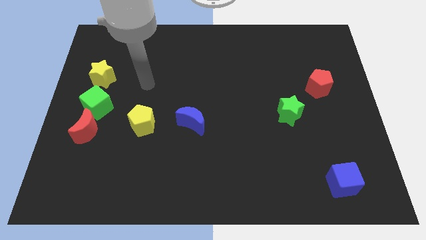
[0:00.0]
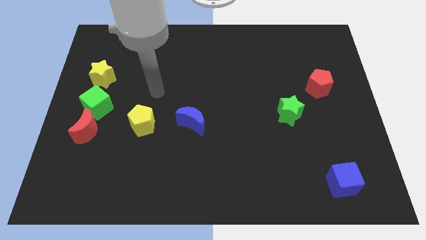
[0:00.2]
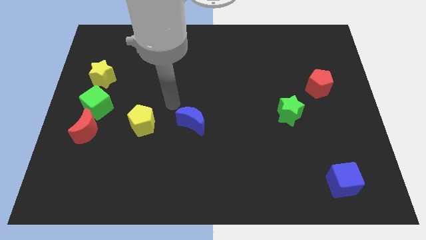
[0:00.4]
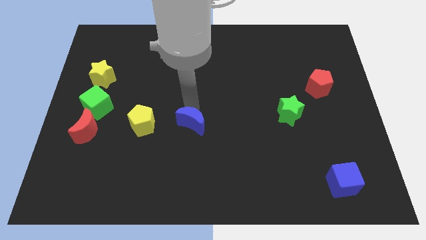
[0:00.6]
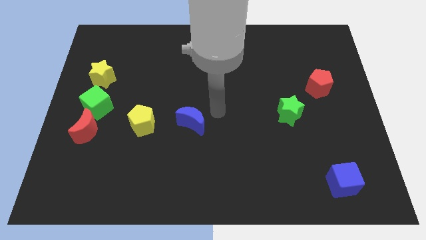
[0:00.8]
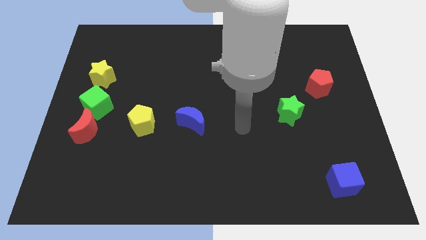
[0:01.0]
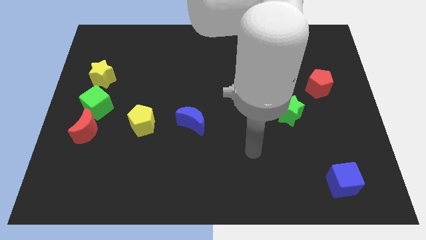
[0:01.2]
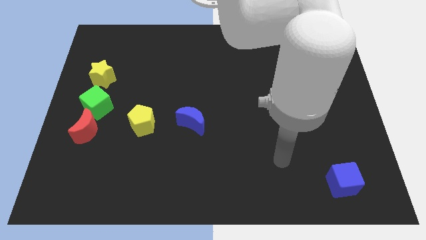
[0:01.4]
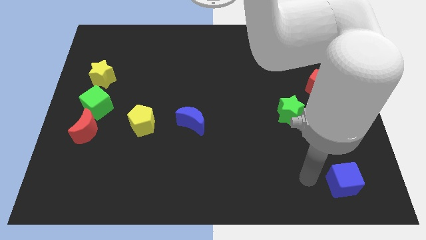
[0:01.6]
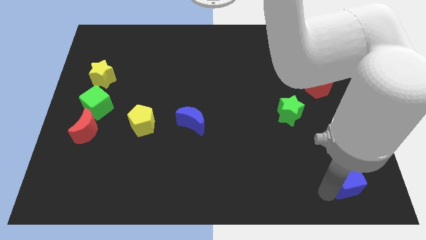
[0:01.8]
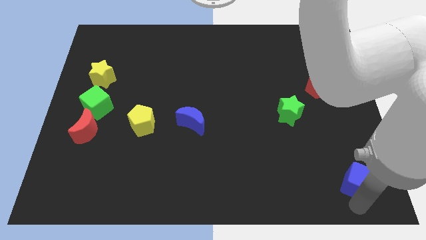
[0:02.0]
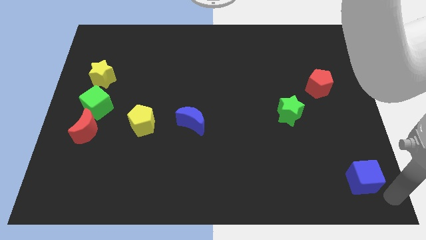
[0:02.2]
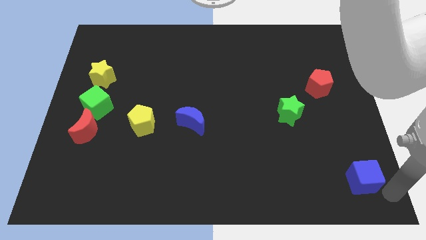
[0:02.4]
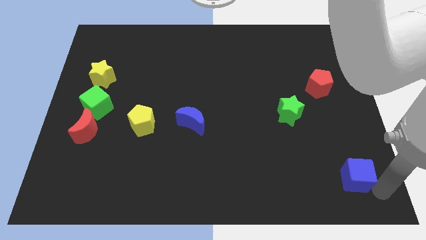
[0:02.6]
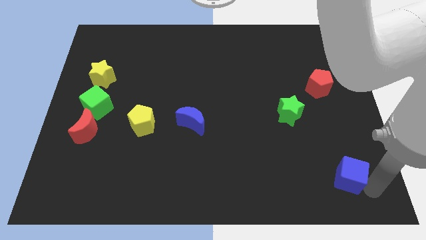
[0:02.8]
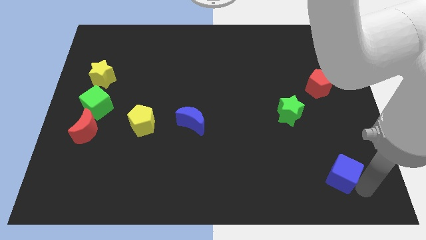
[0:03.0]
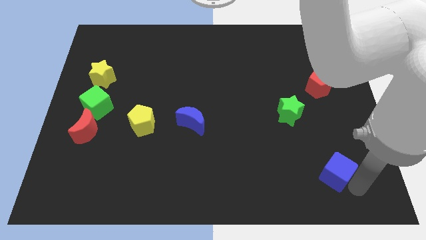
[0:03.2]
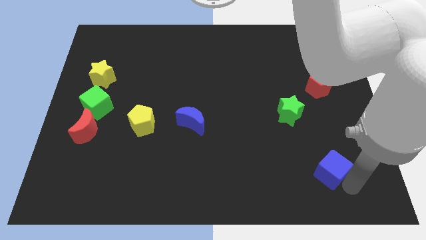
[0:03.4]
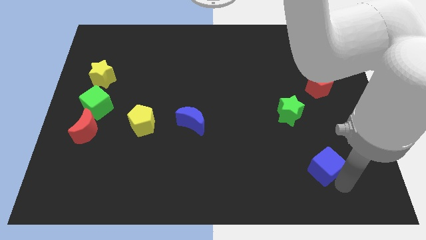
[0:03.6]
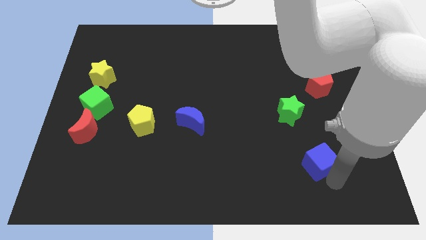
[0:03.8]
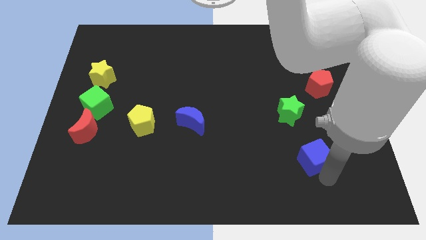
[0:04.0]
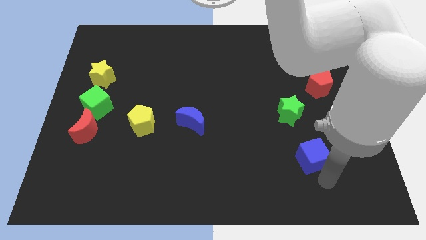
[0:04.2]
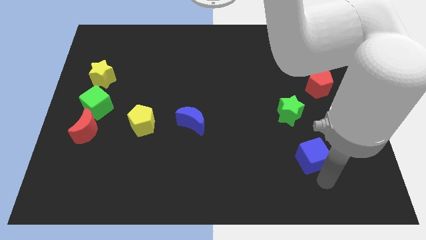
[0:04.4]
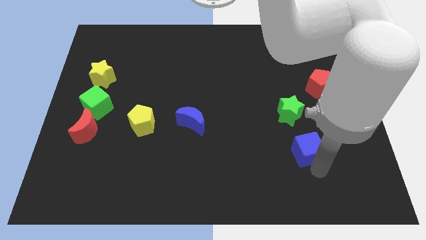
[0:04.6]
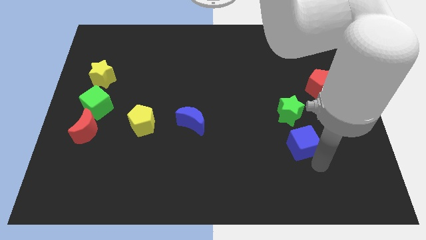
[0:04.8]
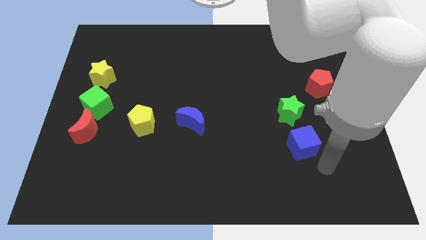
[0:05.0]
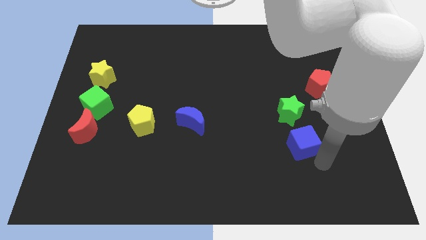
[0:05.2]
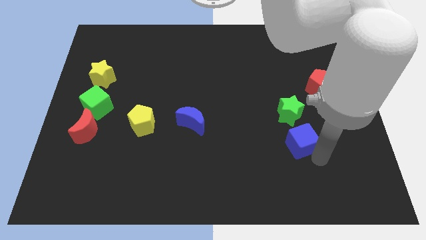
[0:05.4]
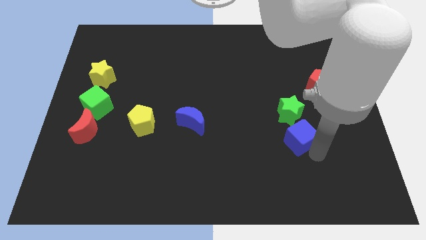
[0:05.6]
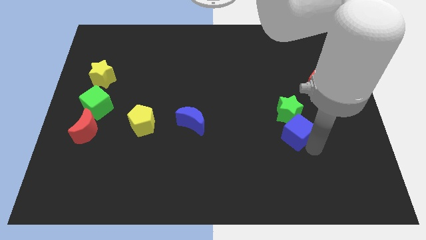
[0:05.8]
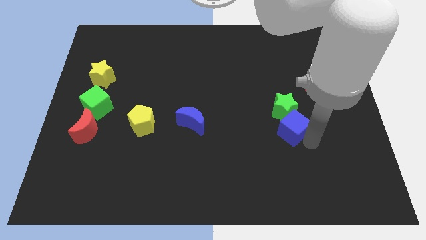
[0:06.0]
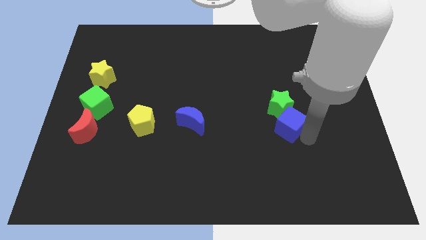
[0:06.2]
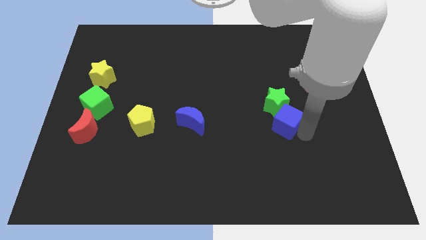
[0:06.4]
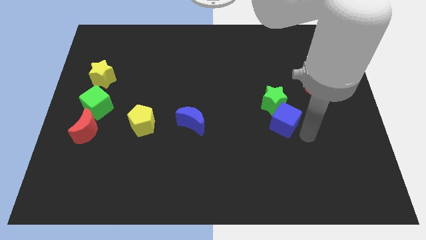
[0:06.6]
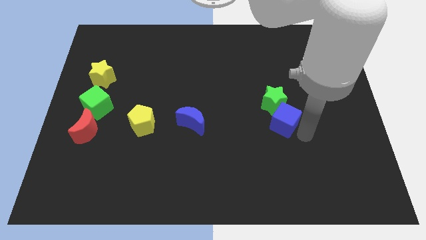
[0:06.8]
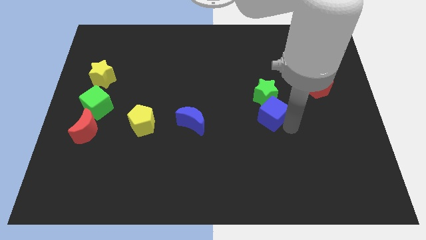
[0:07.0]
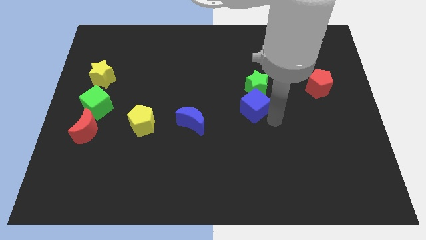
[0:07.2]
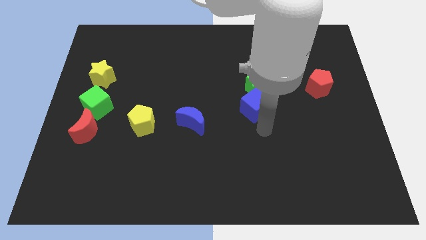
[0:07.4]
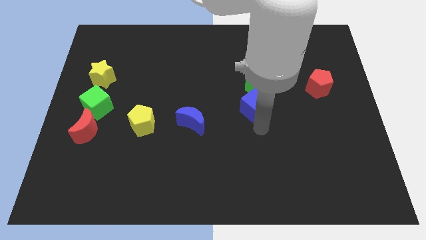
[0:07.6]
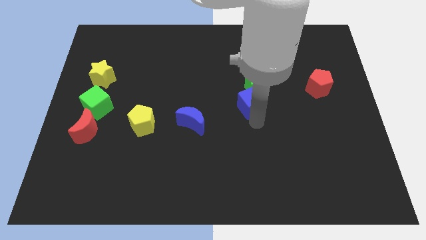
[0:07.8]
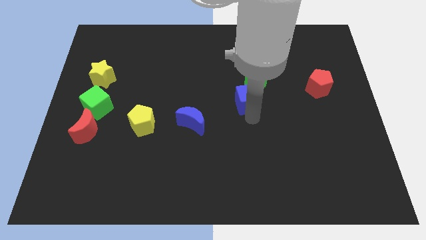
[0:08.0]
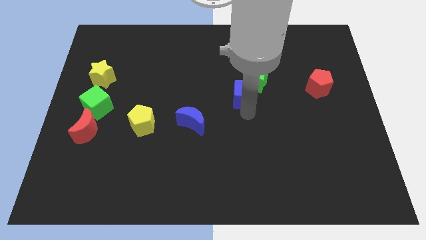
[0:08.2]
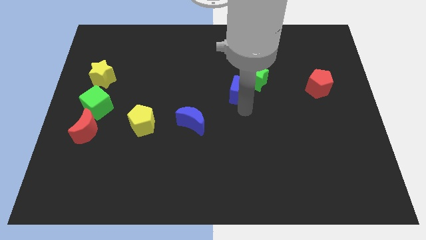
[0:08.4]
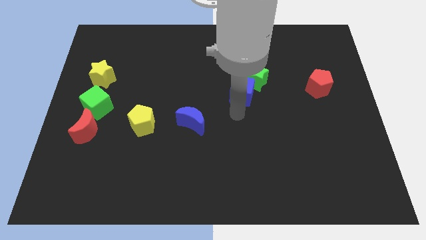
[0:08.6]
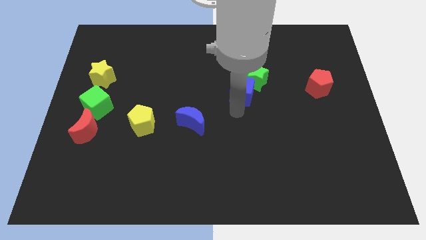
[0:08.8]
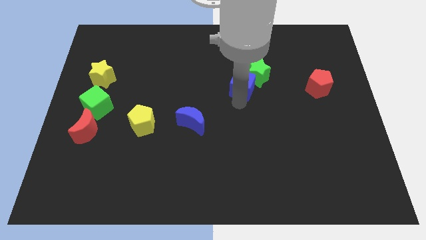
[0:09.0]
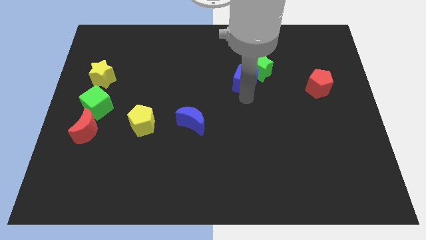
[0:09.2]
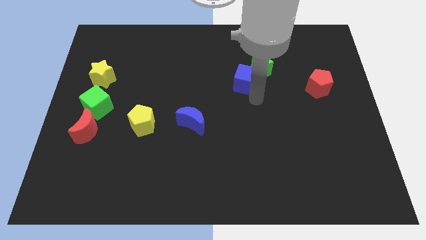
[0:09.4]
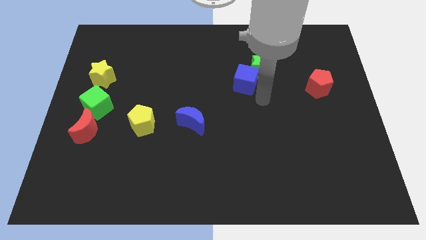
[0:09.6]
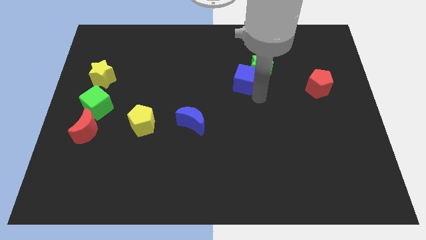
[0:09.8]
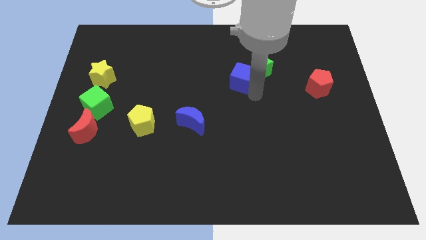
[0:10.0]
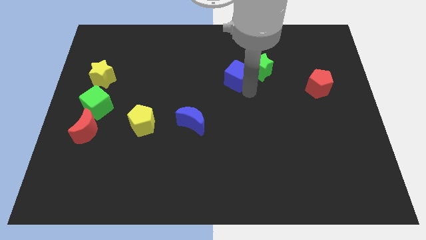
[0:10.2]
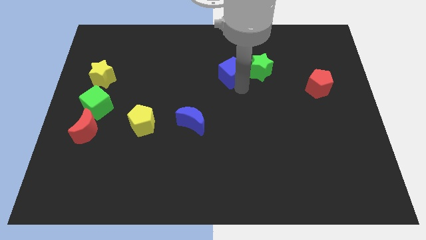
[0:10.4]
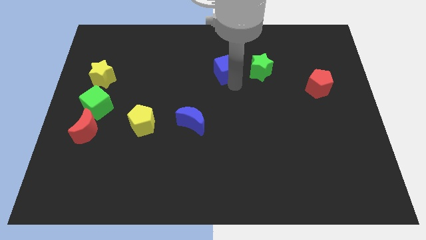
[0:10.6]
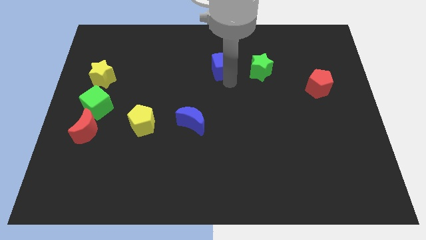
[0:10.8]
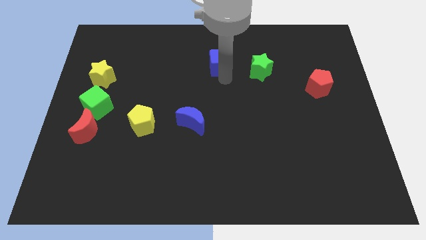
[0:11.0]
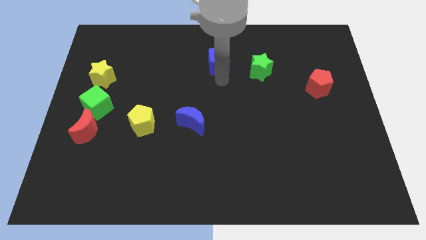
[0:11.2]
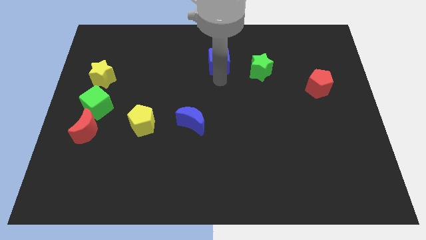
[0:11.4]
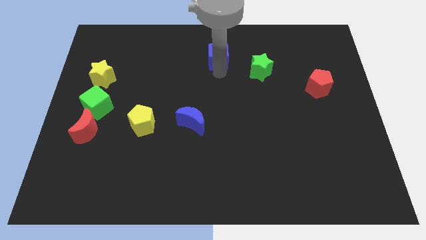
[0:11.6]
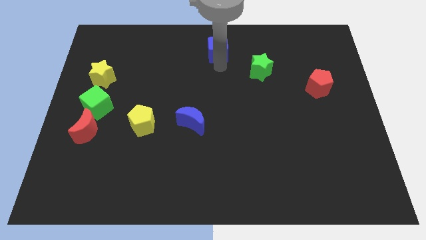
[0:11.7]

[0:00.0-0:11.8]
move the blue cube to the top side

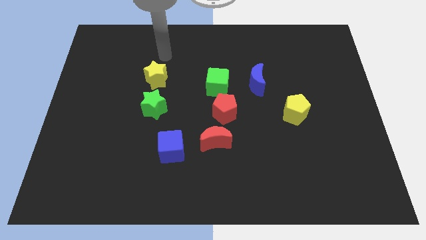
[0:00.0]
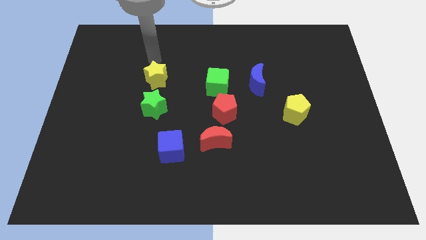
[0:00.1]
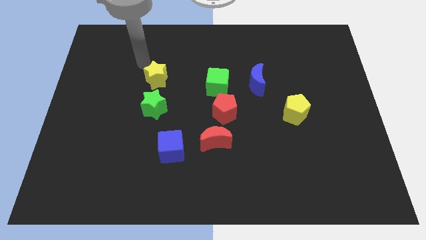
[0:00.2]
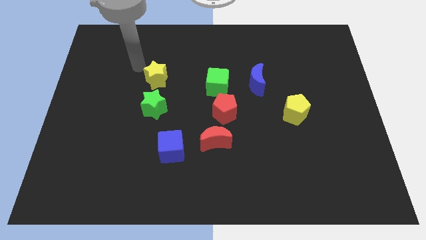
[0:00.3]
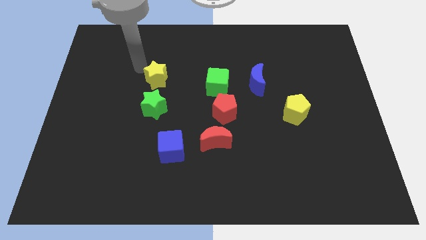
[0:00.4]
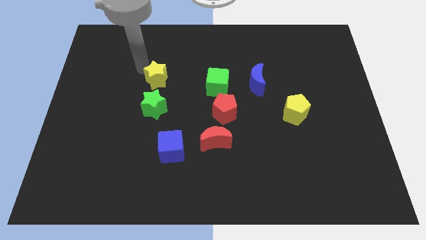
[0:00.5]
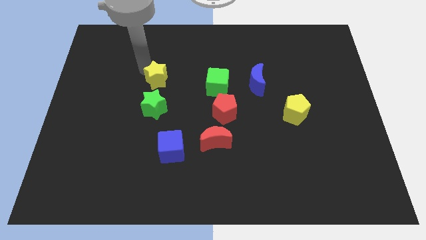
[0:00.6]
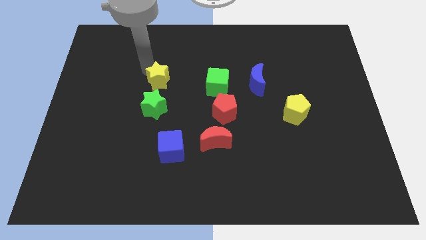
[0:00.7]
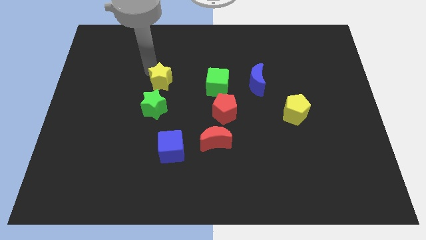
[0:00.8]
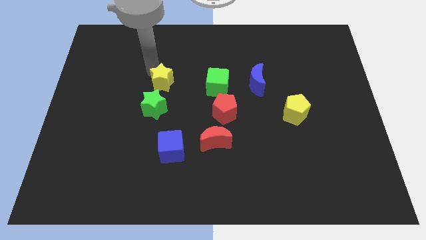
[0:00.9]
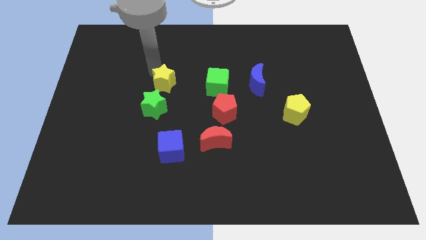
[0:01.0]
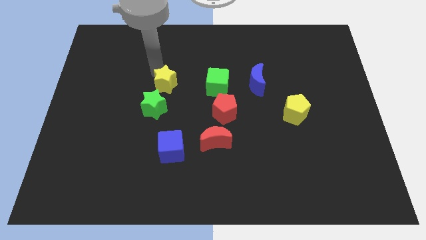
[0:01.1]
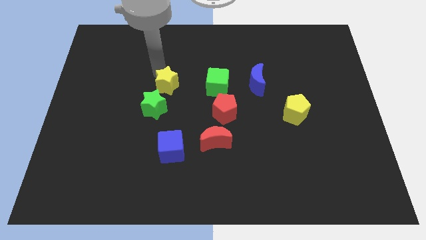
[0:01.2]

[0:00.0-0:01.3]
push the yellow star to the middle of the board
